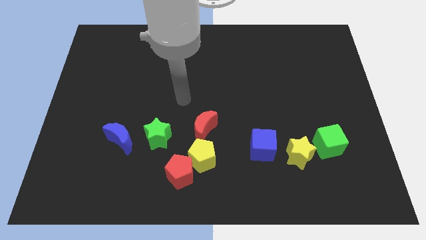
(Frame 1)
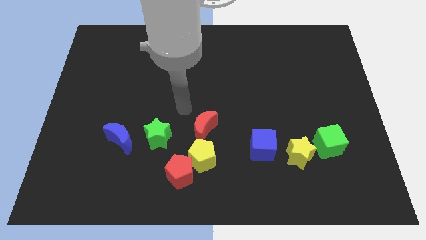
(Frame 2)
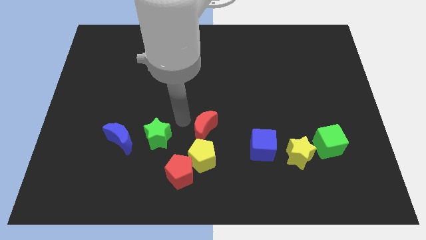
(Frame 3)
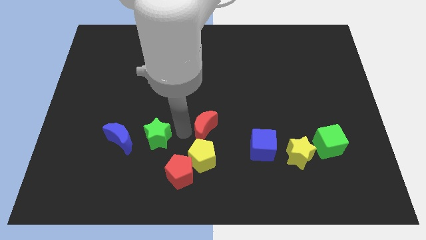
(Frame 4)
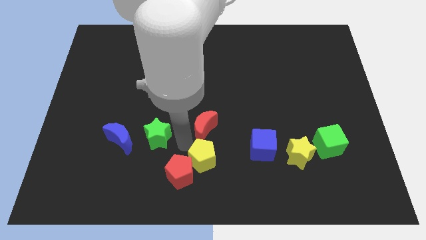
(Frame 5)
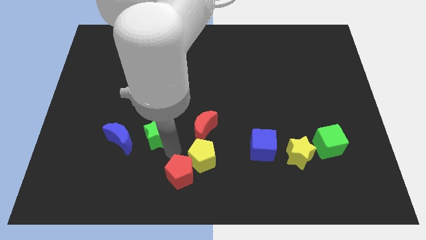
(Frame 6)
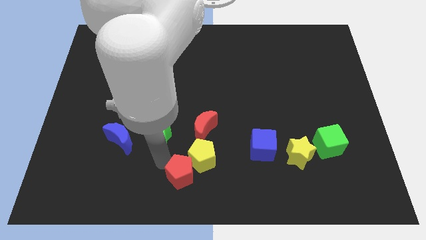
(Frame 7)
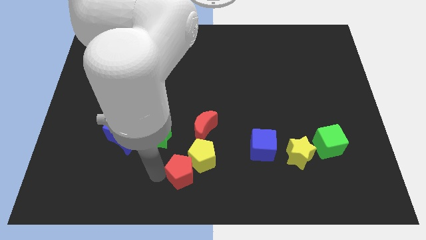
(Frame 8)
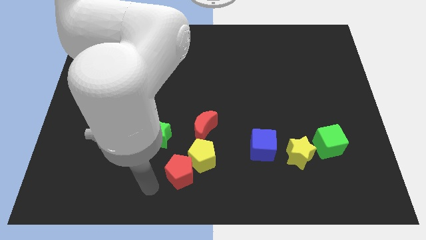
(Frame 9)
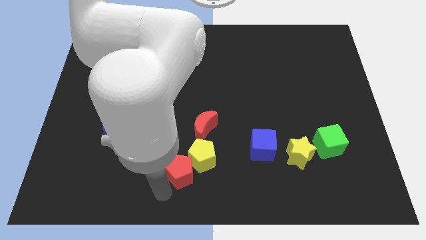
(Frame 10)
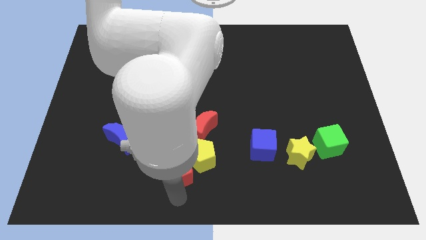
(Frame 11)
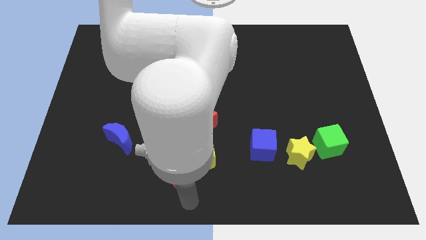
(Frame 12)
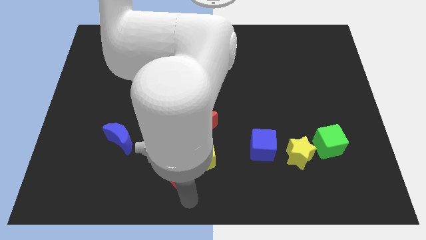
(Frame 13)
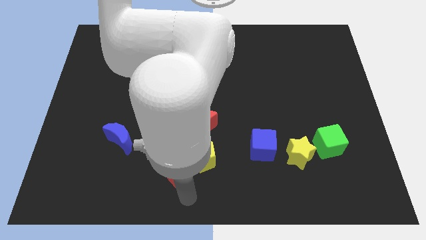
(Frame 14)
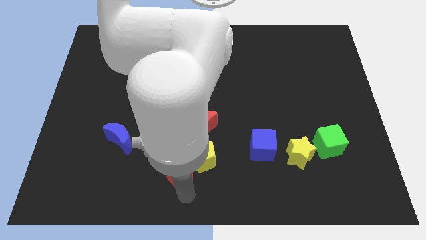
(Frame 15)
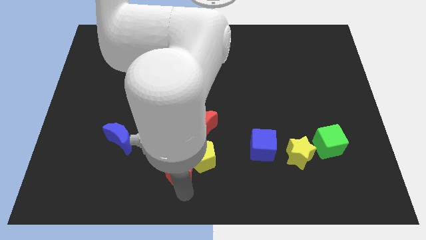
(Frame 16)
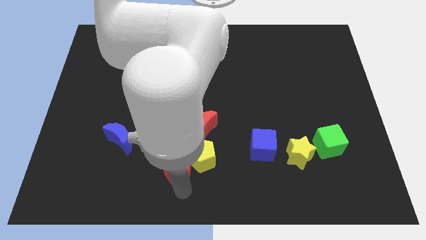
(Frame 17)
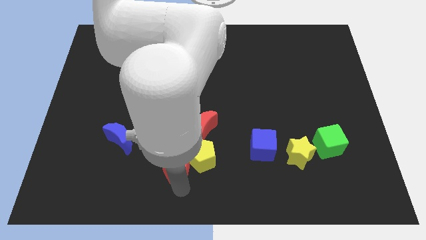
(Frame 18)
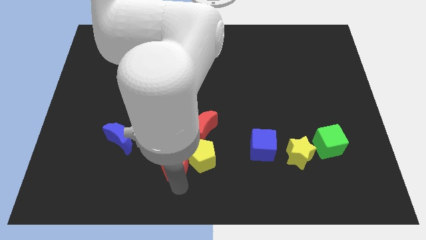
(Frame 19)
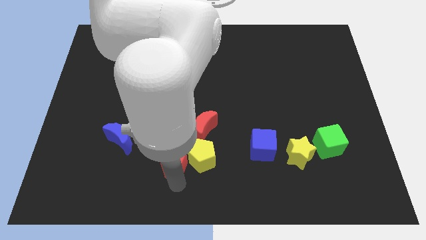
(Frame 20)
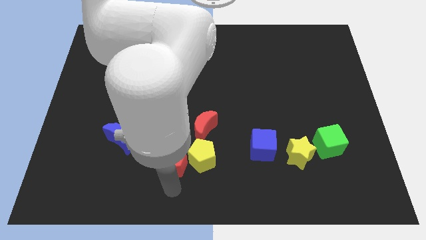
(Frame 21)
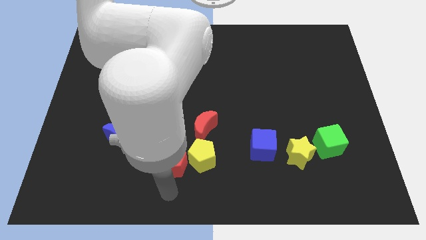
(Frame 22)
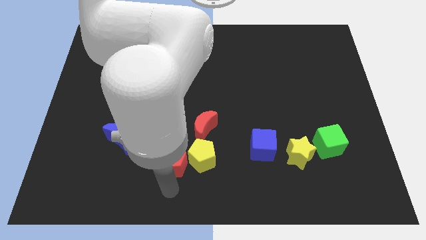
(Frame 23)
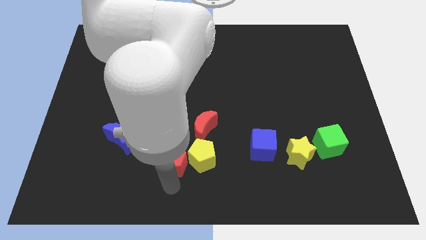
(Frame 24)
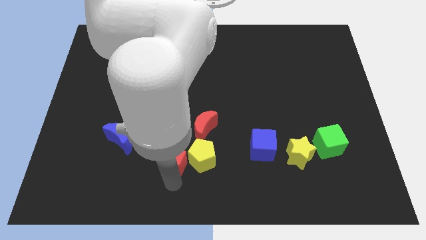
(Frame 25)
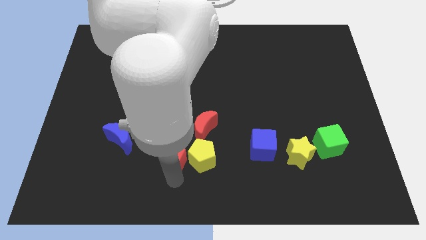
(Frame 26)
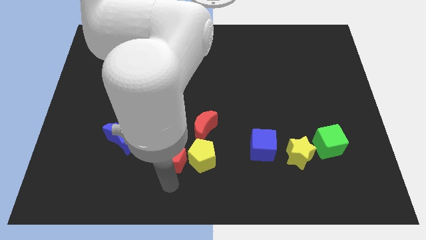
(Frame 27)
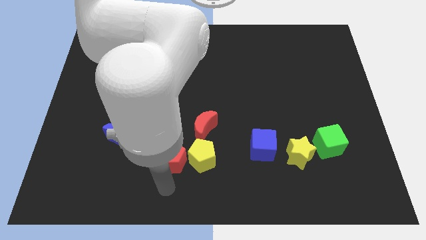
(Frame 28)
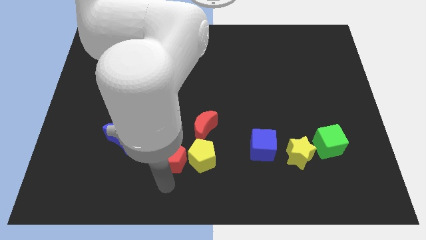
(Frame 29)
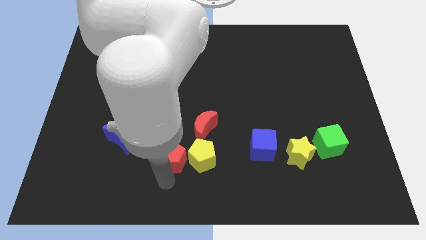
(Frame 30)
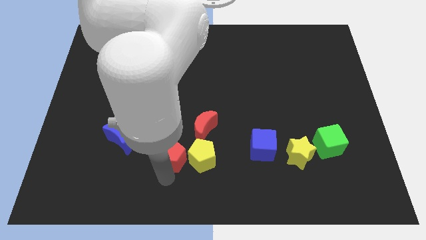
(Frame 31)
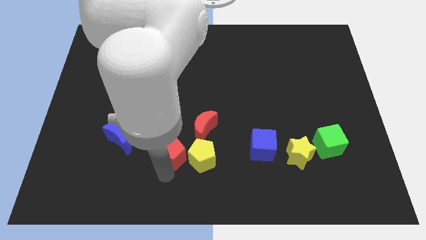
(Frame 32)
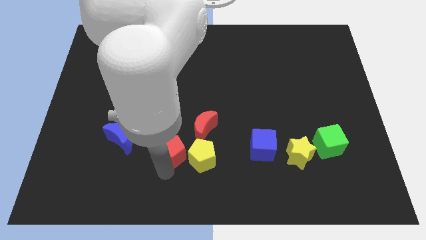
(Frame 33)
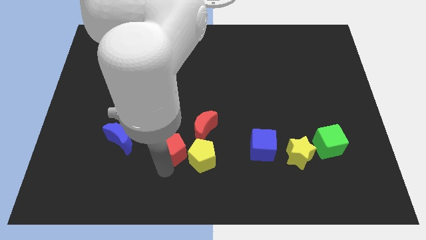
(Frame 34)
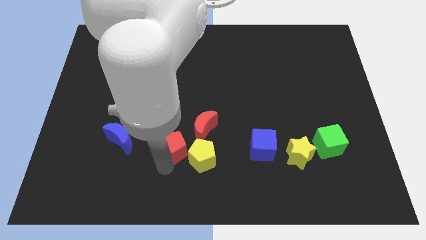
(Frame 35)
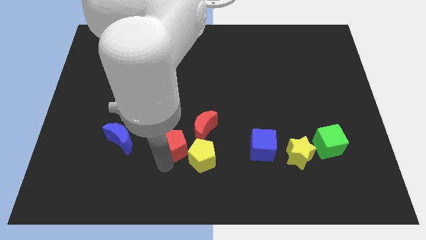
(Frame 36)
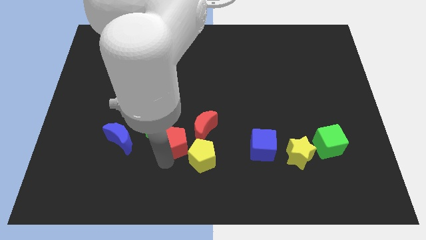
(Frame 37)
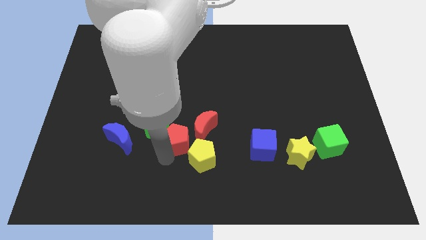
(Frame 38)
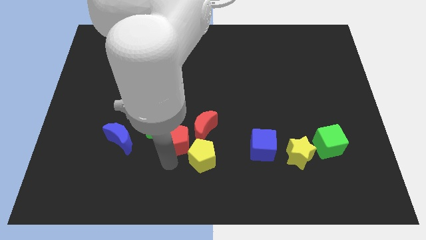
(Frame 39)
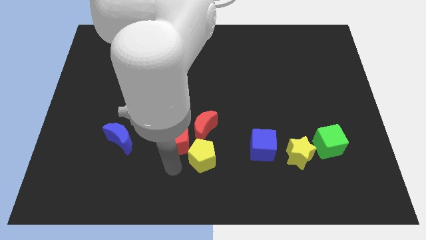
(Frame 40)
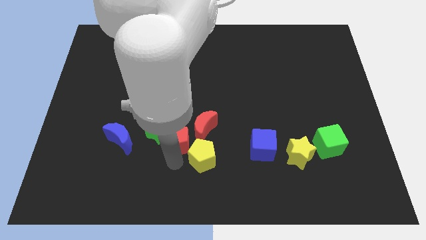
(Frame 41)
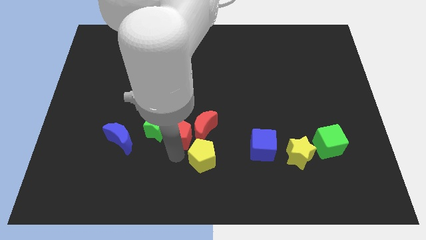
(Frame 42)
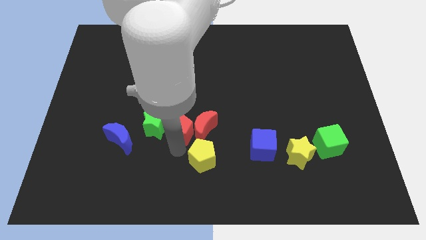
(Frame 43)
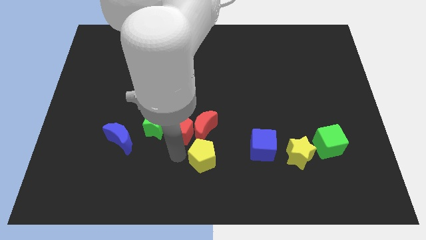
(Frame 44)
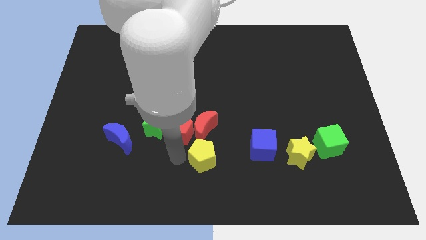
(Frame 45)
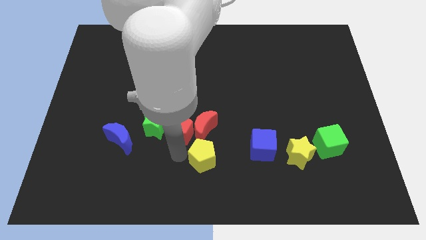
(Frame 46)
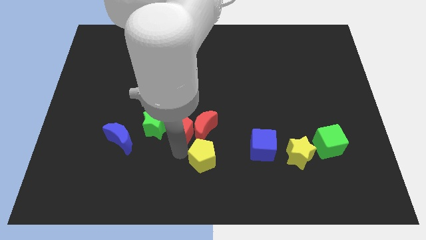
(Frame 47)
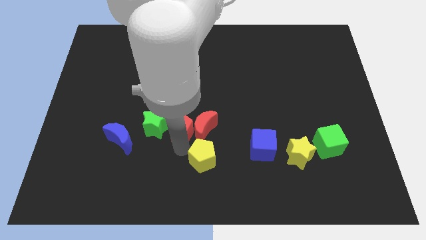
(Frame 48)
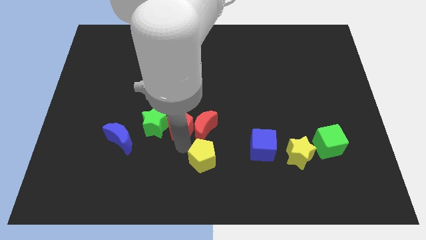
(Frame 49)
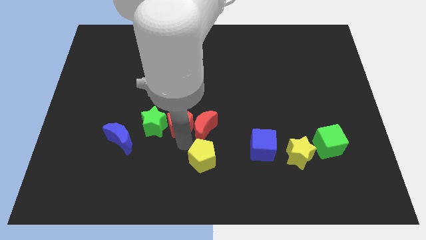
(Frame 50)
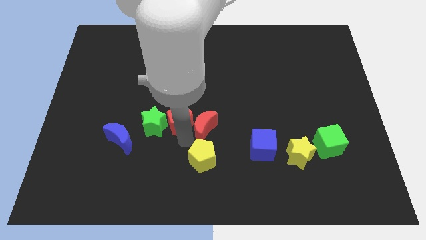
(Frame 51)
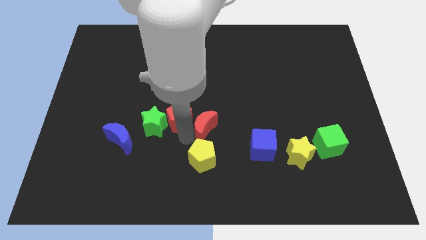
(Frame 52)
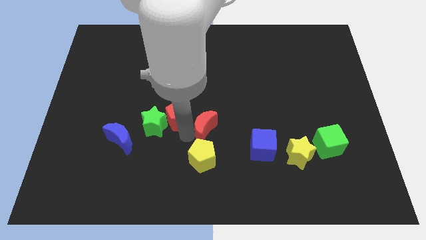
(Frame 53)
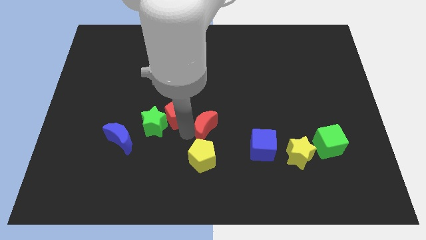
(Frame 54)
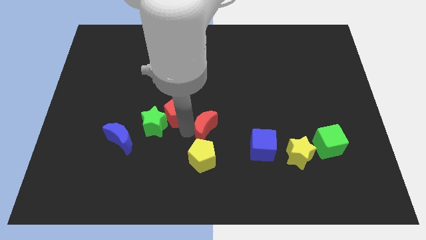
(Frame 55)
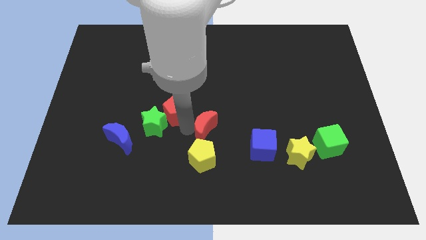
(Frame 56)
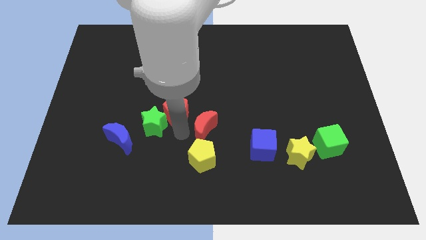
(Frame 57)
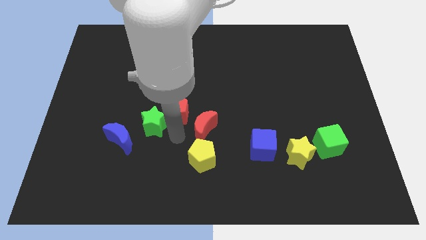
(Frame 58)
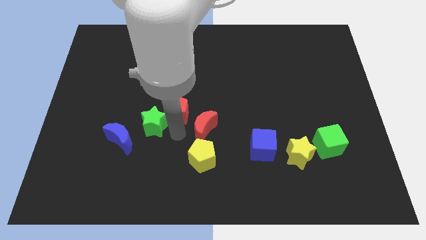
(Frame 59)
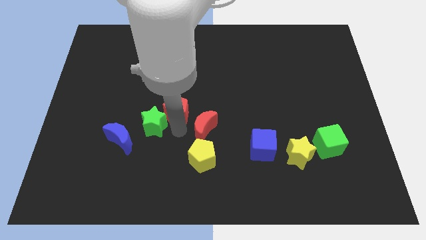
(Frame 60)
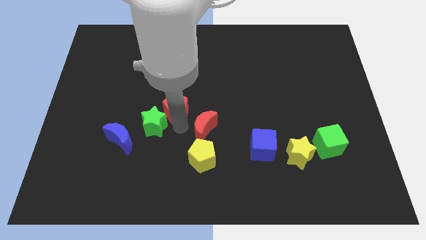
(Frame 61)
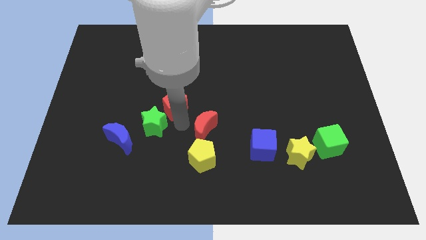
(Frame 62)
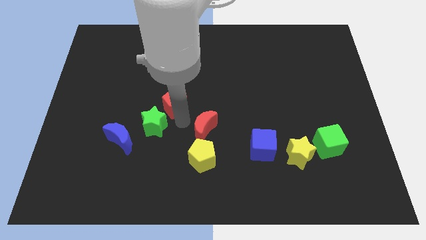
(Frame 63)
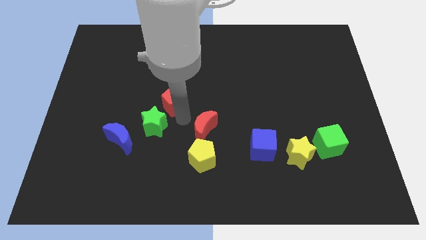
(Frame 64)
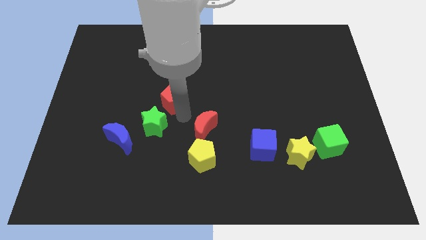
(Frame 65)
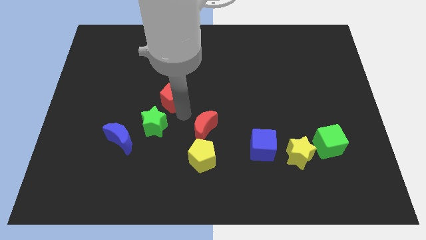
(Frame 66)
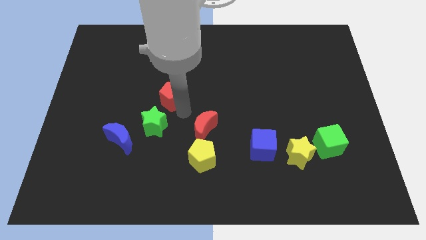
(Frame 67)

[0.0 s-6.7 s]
move the red pentagon upwards
